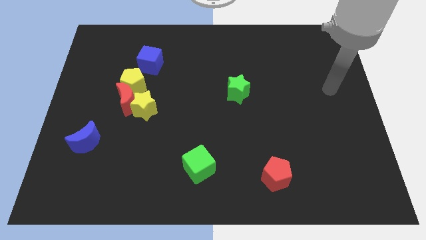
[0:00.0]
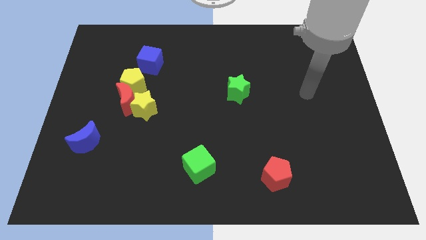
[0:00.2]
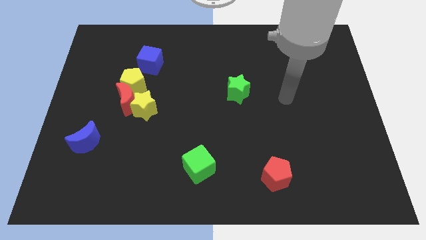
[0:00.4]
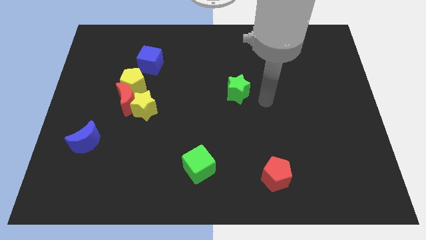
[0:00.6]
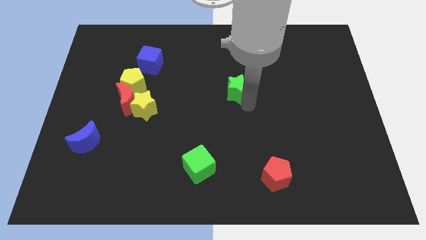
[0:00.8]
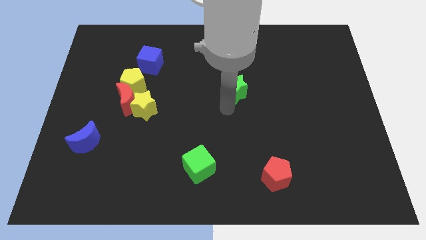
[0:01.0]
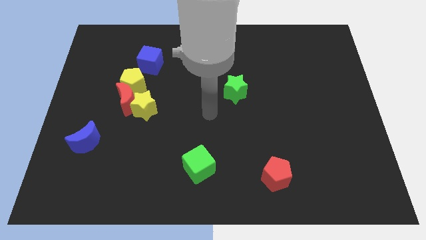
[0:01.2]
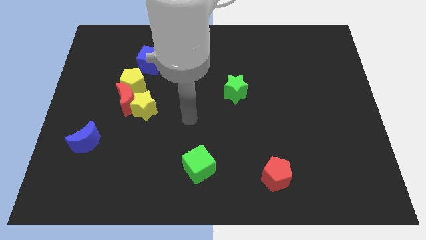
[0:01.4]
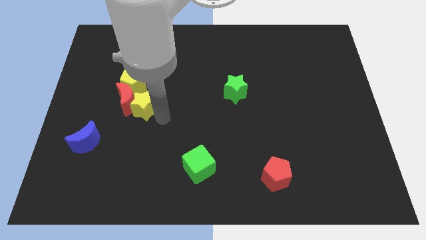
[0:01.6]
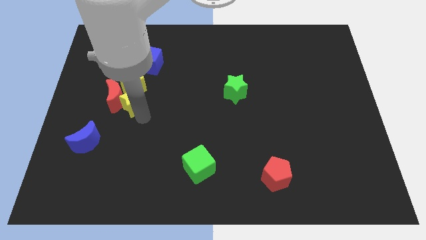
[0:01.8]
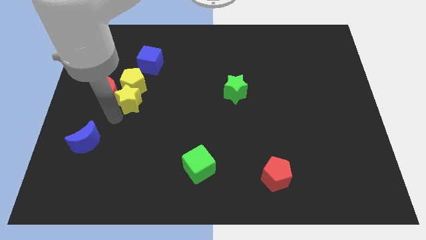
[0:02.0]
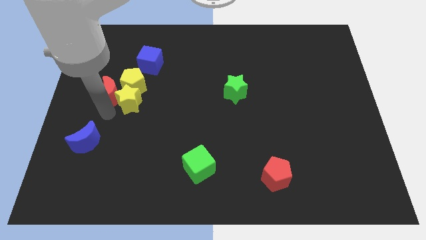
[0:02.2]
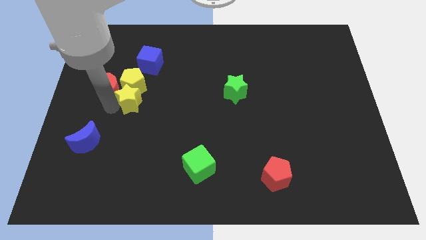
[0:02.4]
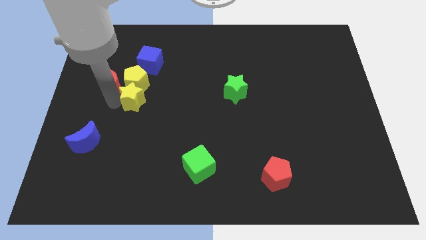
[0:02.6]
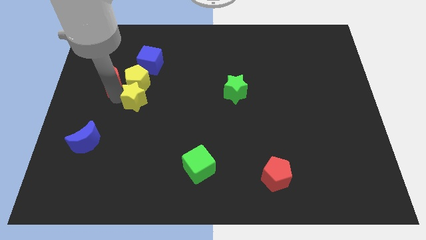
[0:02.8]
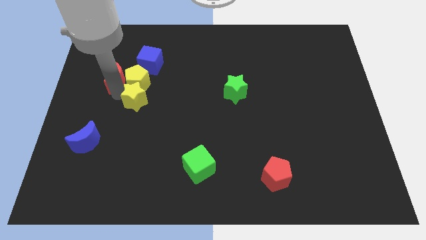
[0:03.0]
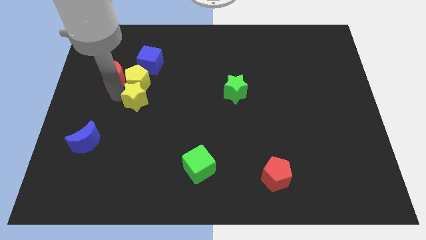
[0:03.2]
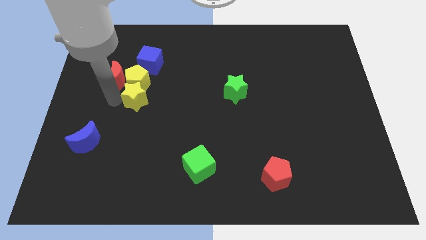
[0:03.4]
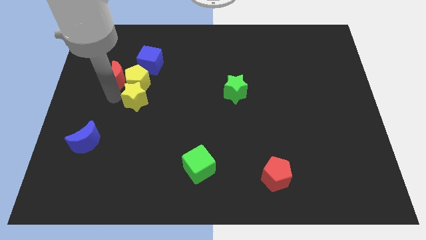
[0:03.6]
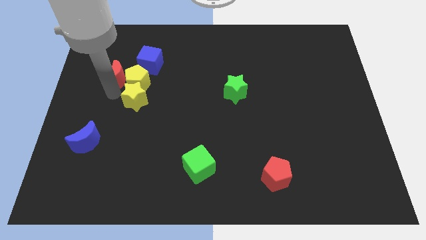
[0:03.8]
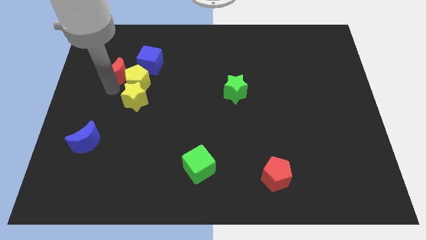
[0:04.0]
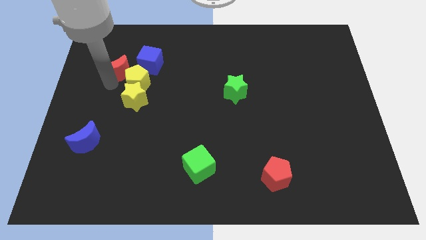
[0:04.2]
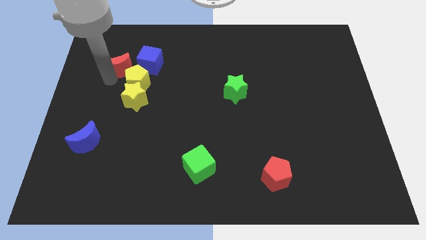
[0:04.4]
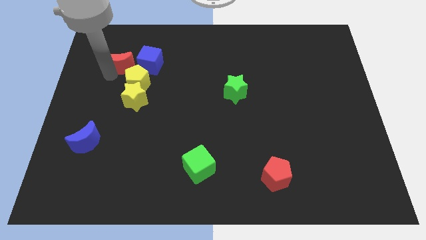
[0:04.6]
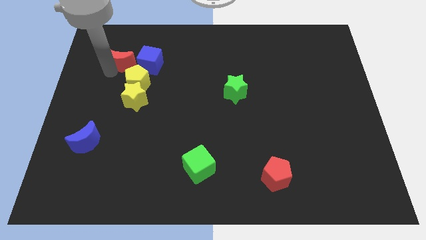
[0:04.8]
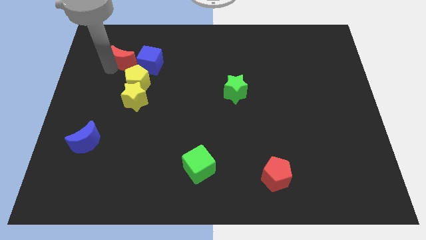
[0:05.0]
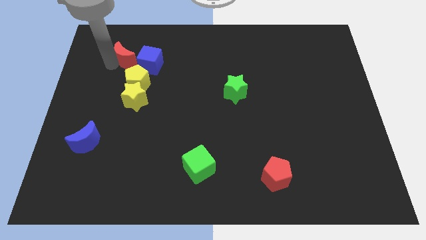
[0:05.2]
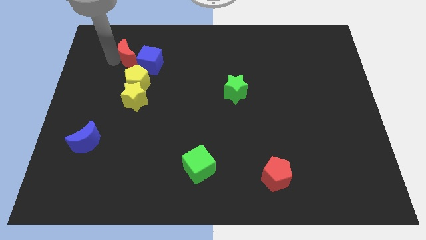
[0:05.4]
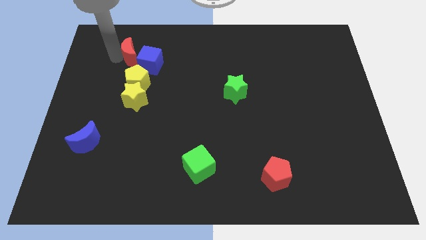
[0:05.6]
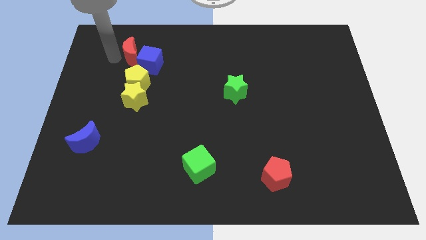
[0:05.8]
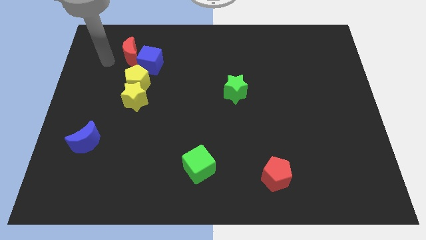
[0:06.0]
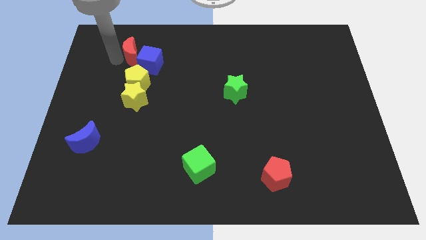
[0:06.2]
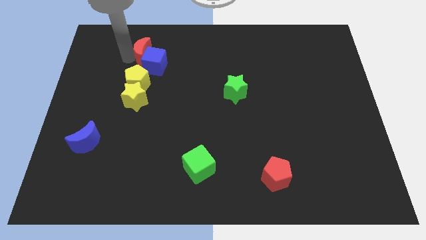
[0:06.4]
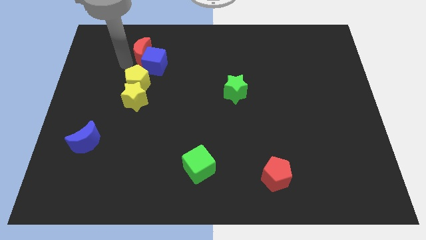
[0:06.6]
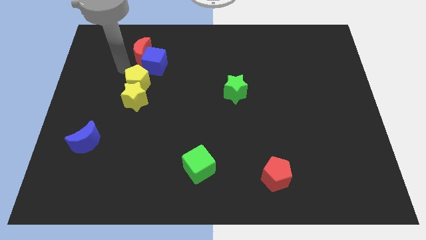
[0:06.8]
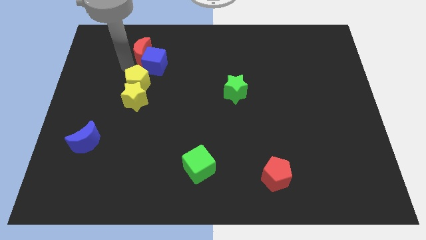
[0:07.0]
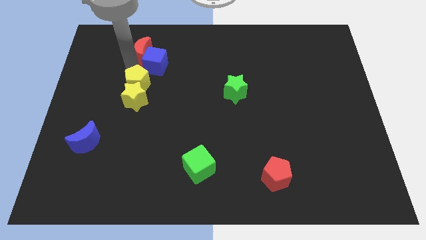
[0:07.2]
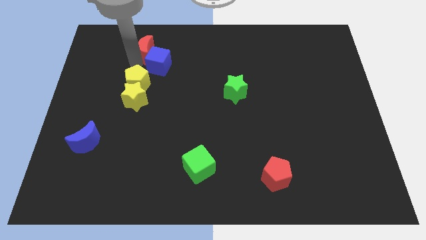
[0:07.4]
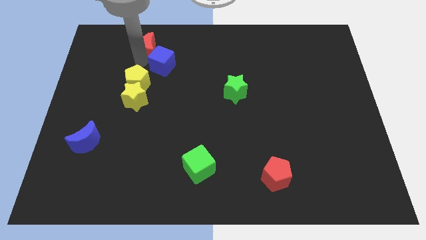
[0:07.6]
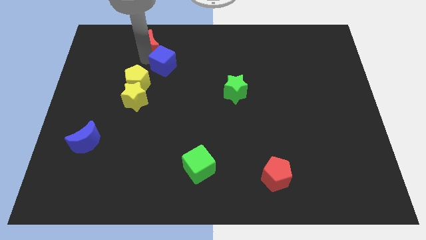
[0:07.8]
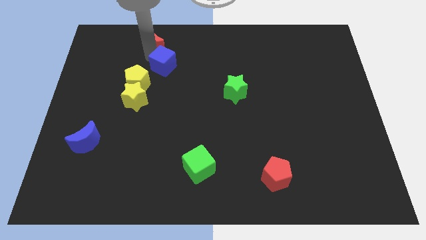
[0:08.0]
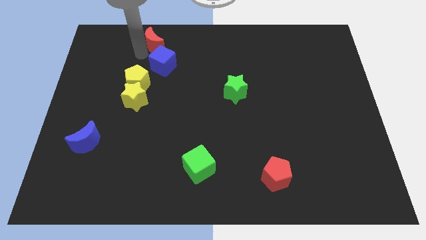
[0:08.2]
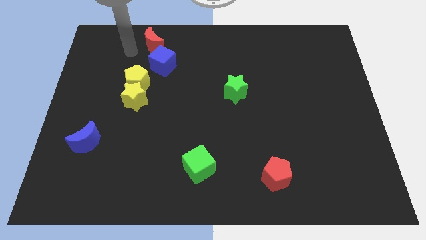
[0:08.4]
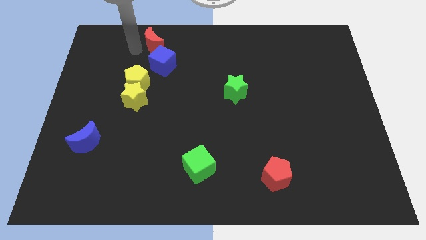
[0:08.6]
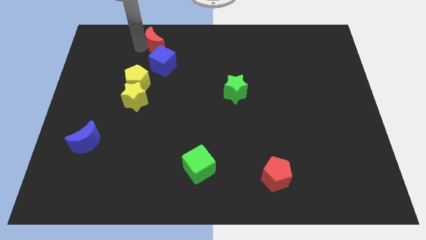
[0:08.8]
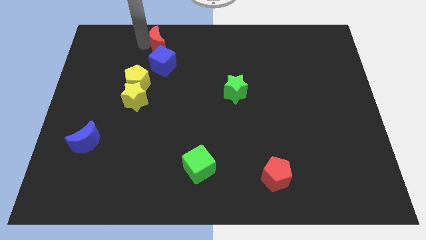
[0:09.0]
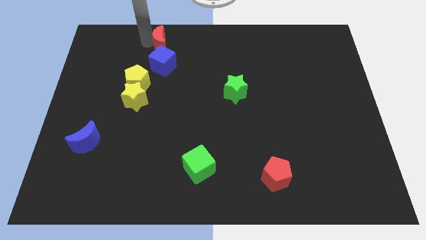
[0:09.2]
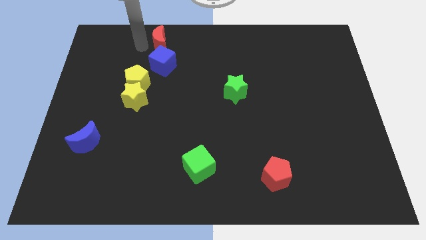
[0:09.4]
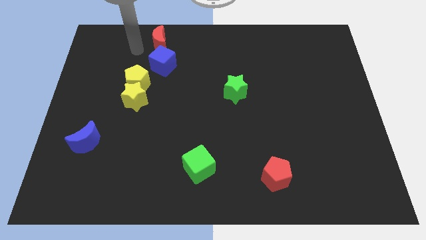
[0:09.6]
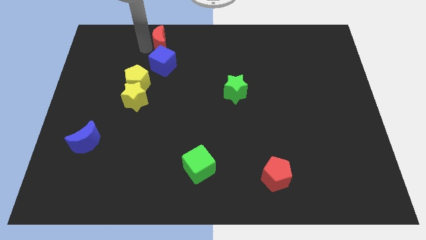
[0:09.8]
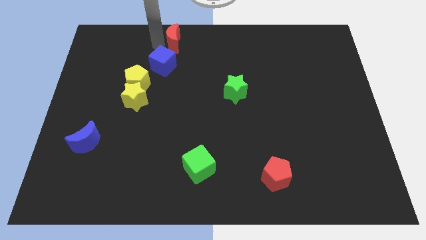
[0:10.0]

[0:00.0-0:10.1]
slide the red moon to the towards your base

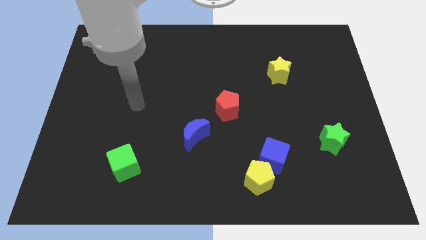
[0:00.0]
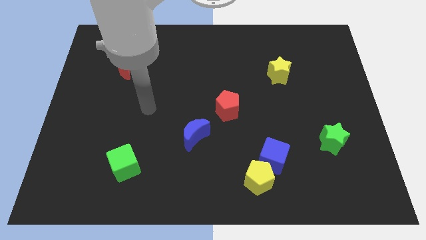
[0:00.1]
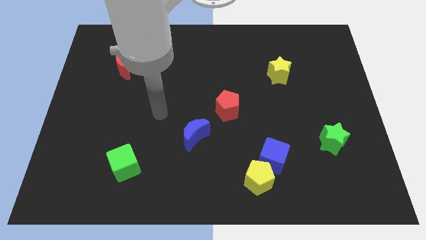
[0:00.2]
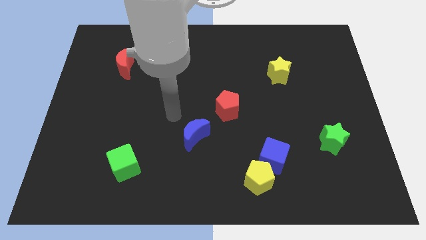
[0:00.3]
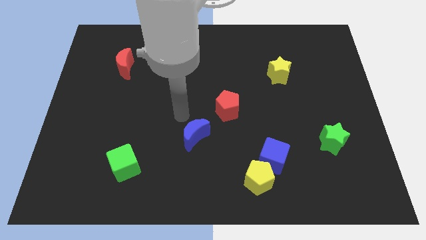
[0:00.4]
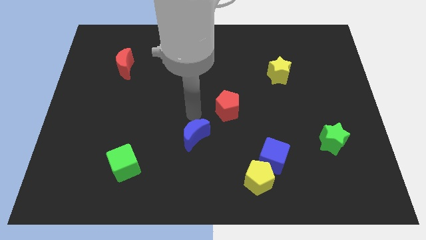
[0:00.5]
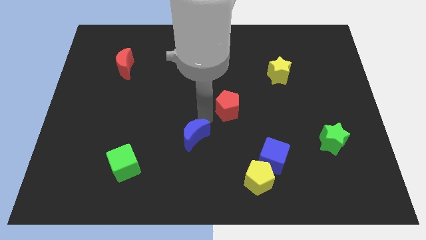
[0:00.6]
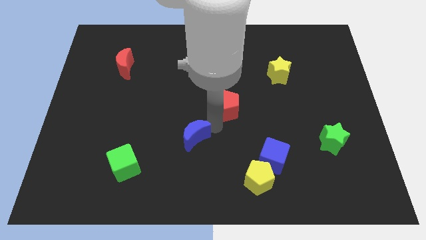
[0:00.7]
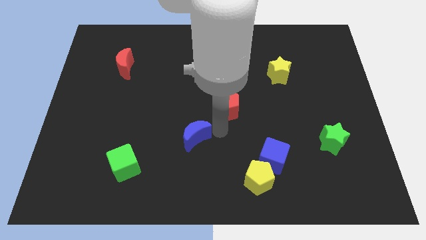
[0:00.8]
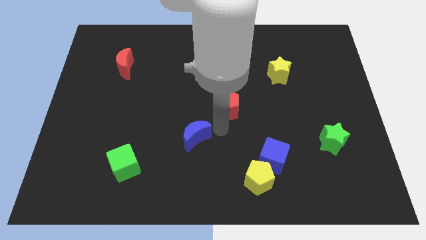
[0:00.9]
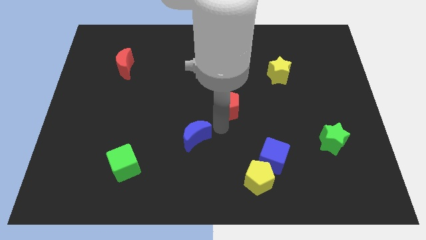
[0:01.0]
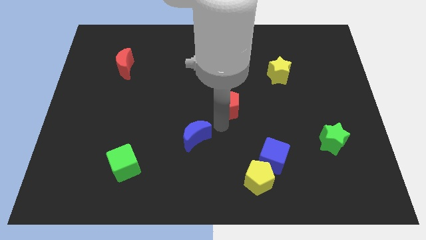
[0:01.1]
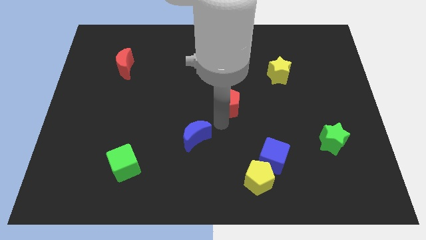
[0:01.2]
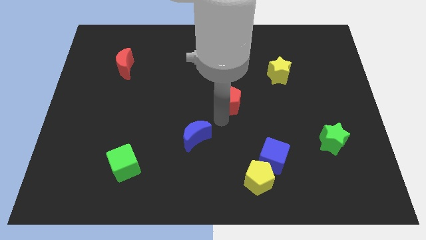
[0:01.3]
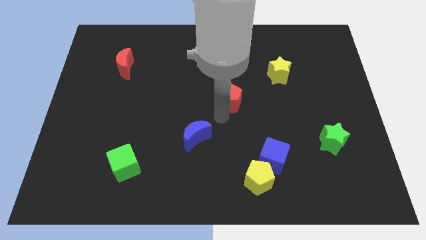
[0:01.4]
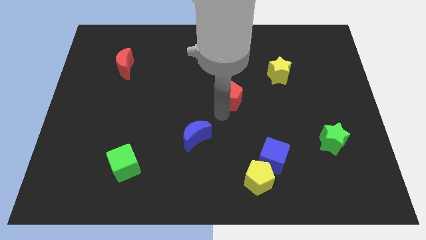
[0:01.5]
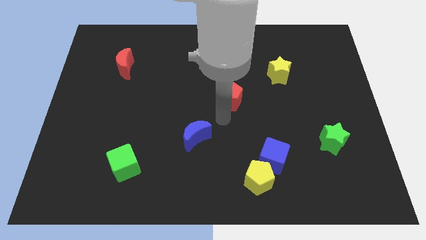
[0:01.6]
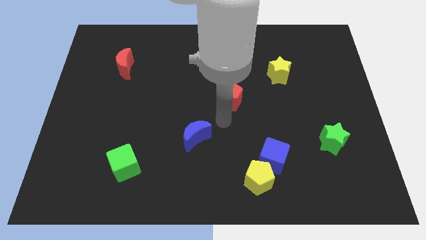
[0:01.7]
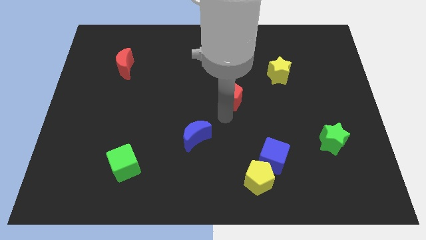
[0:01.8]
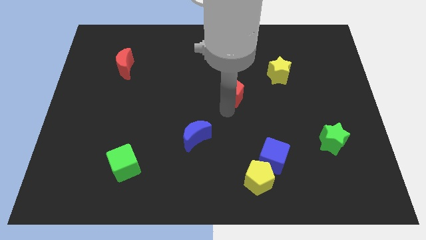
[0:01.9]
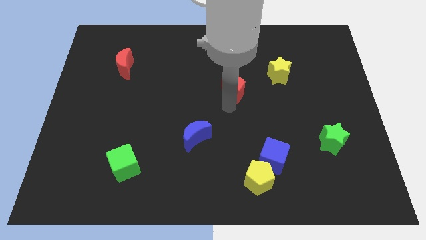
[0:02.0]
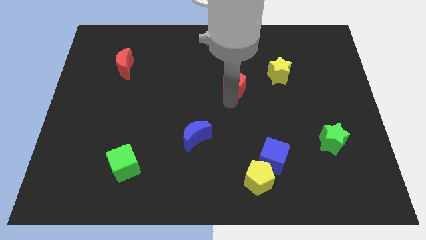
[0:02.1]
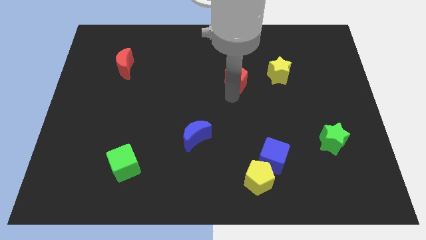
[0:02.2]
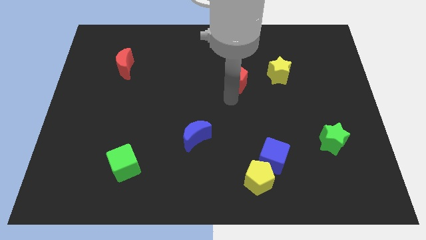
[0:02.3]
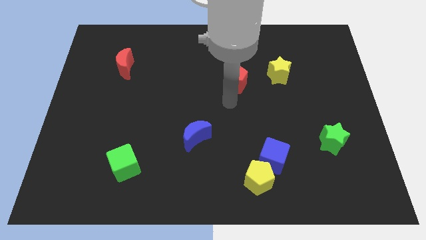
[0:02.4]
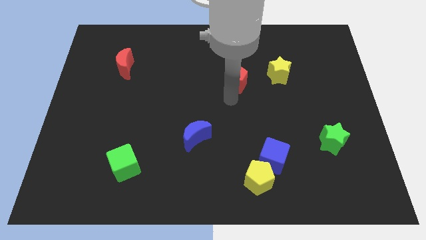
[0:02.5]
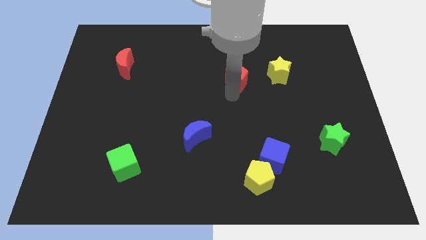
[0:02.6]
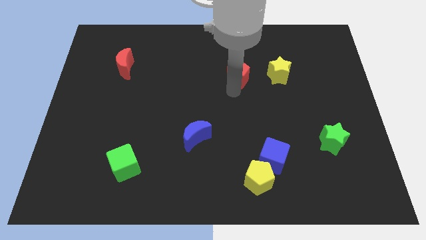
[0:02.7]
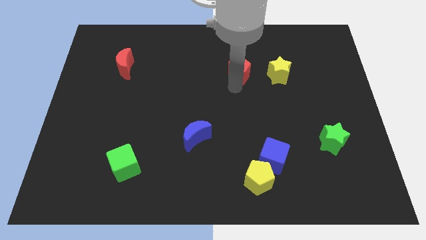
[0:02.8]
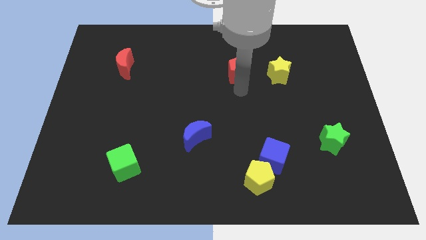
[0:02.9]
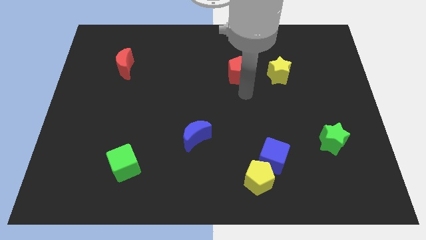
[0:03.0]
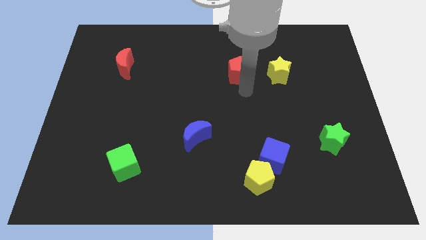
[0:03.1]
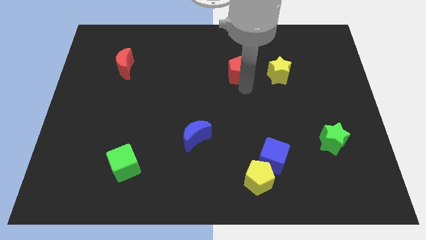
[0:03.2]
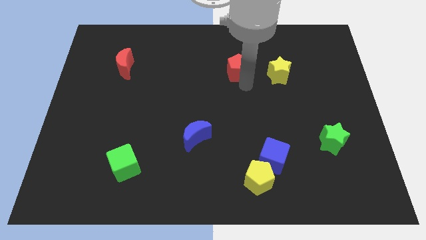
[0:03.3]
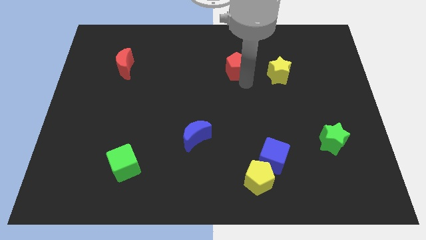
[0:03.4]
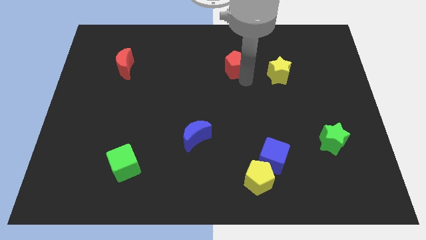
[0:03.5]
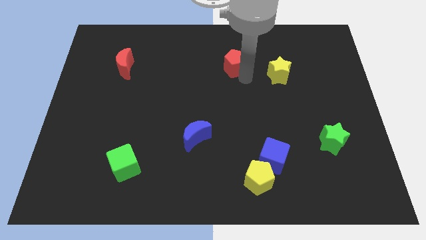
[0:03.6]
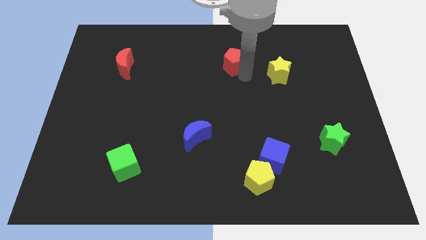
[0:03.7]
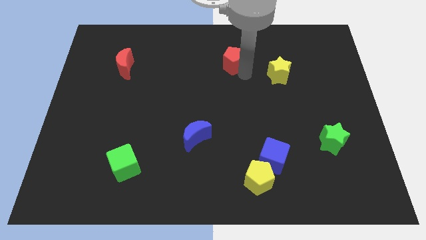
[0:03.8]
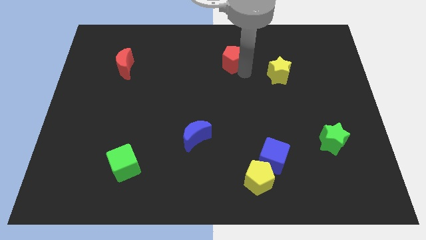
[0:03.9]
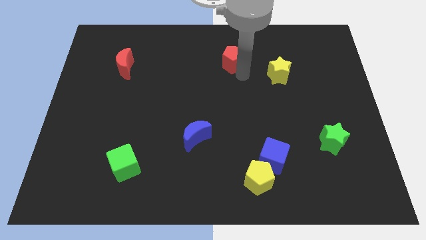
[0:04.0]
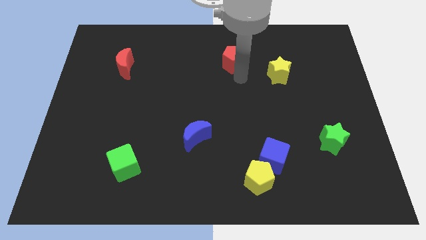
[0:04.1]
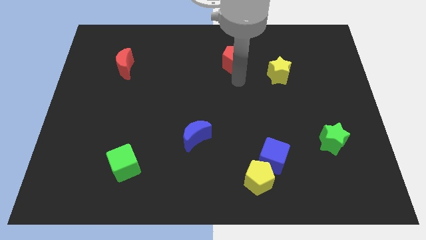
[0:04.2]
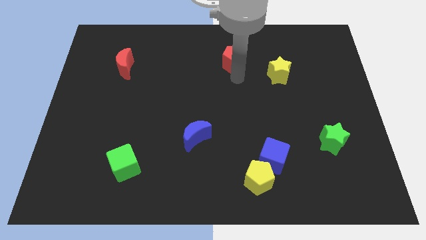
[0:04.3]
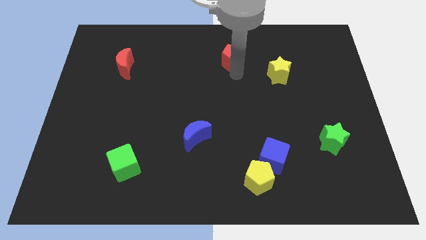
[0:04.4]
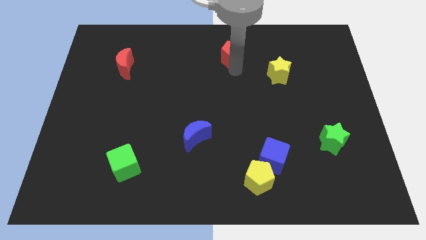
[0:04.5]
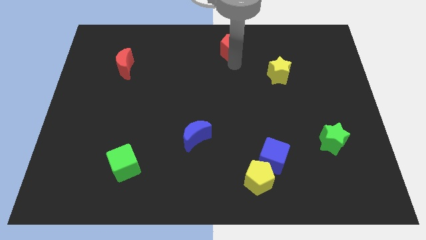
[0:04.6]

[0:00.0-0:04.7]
slide the red pentagon to the top
